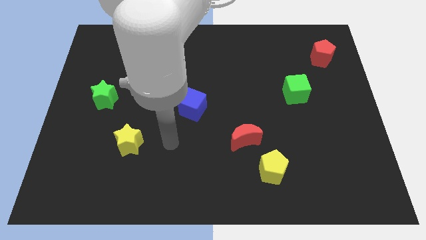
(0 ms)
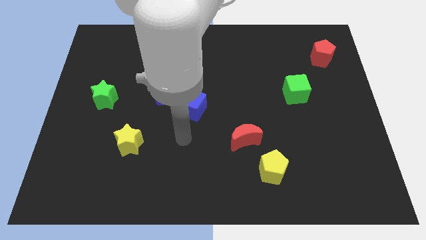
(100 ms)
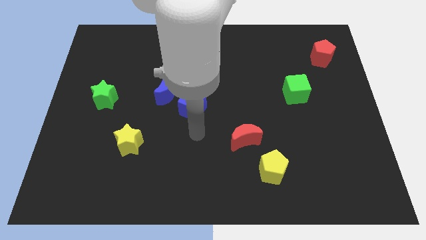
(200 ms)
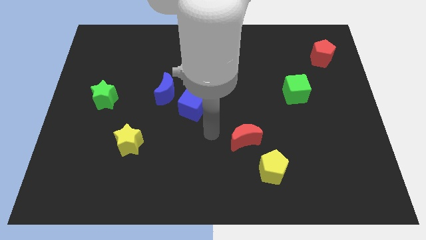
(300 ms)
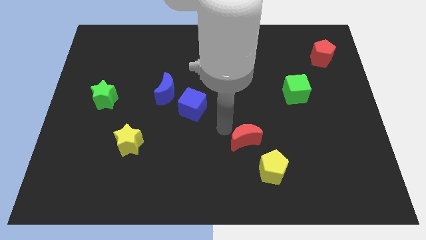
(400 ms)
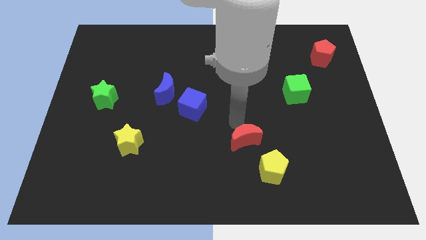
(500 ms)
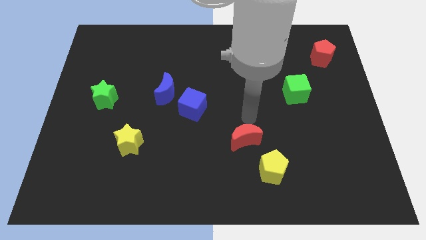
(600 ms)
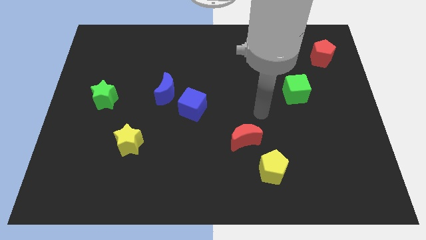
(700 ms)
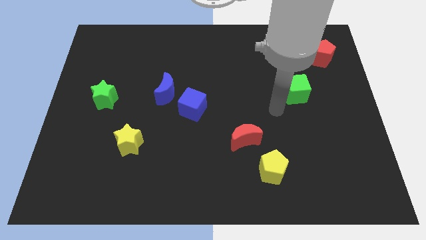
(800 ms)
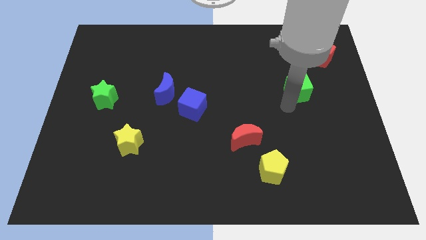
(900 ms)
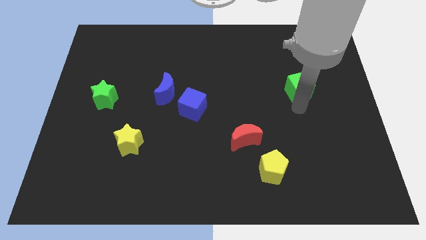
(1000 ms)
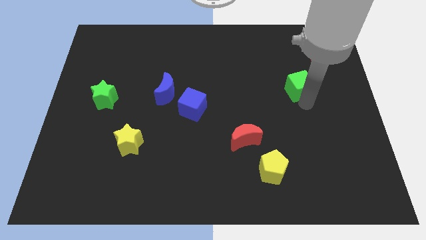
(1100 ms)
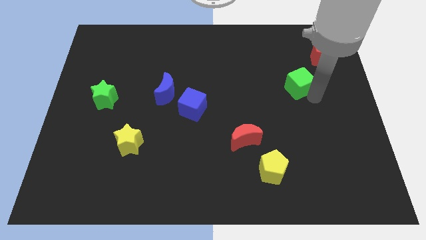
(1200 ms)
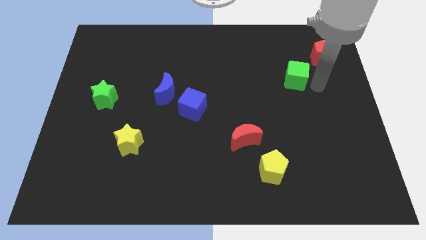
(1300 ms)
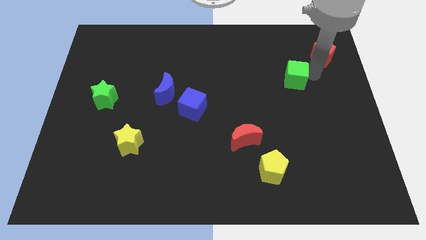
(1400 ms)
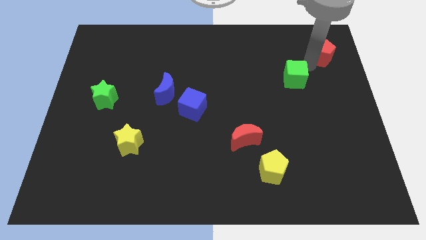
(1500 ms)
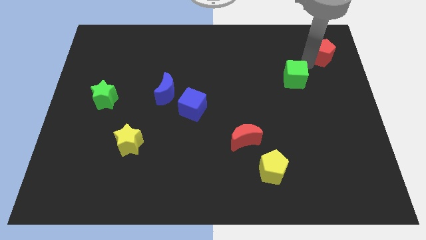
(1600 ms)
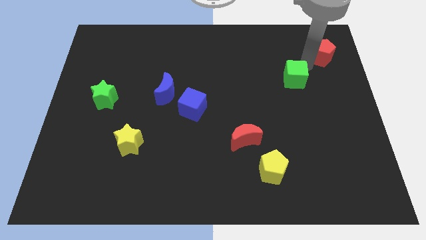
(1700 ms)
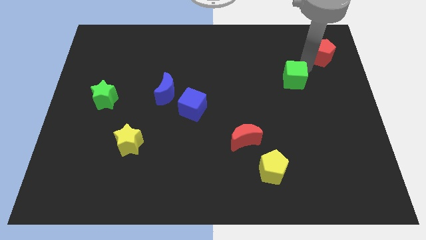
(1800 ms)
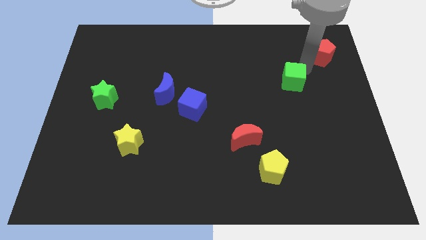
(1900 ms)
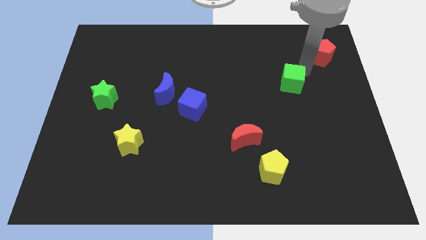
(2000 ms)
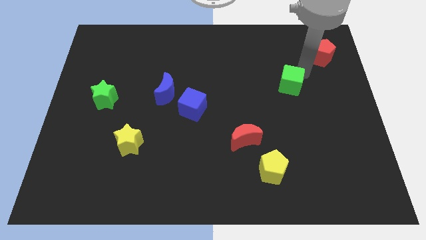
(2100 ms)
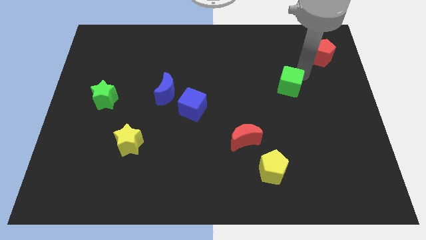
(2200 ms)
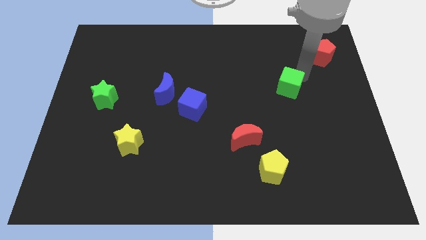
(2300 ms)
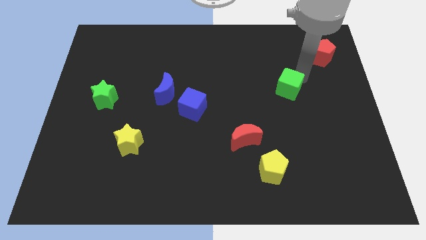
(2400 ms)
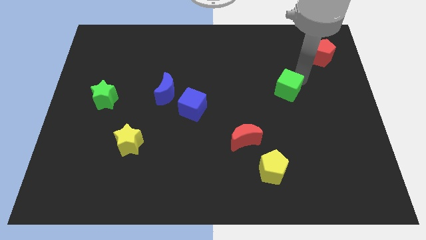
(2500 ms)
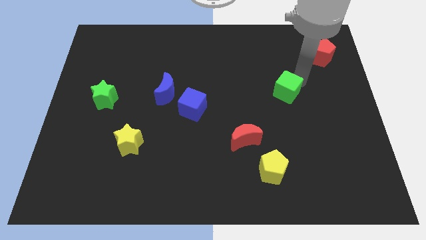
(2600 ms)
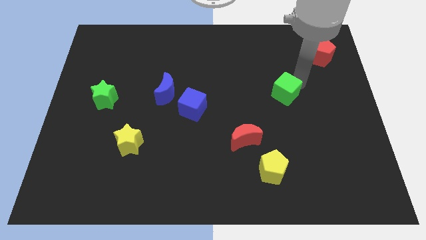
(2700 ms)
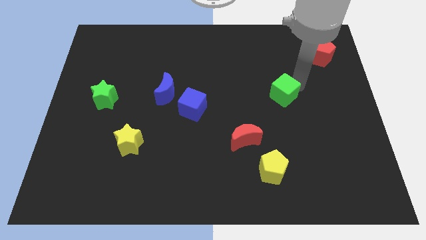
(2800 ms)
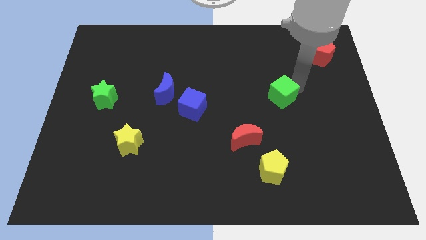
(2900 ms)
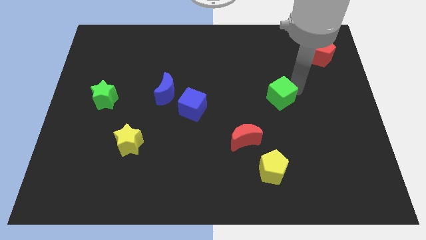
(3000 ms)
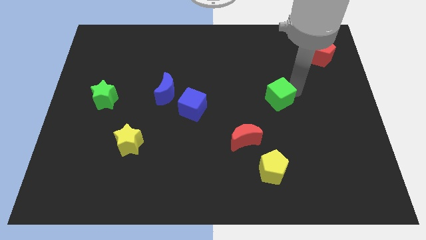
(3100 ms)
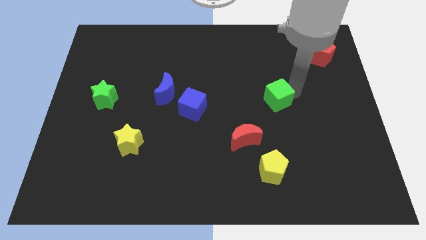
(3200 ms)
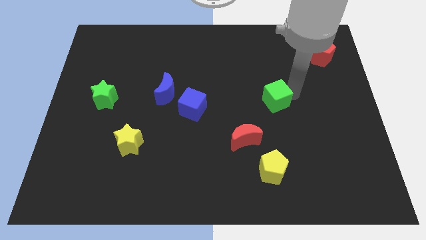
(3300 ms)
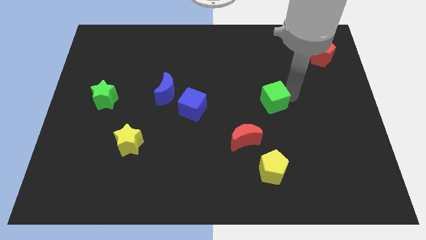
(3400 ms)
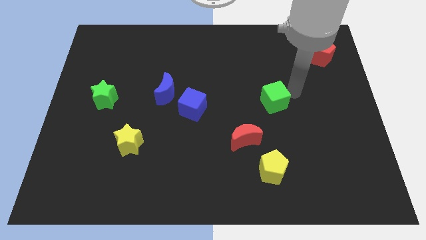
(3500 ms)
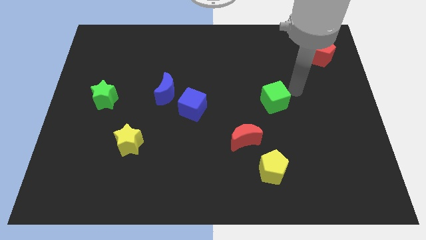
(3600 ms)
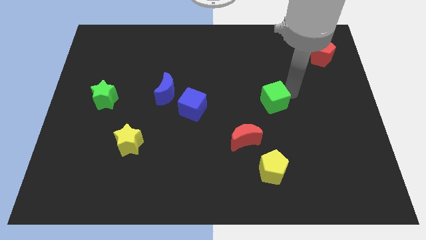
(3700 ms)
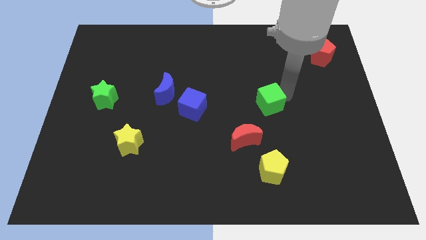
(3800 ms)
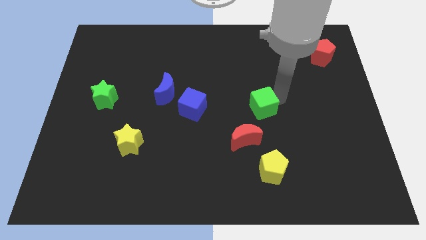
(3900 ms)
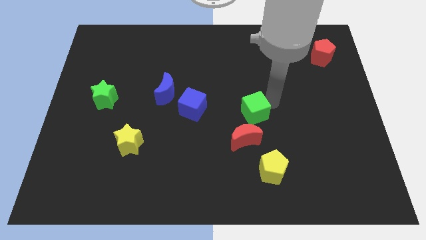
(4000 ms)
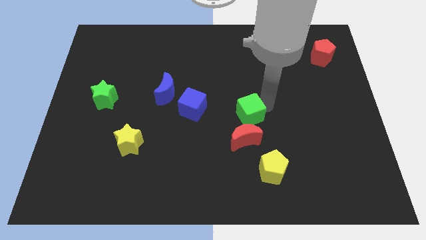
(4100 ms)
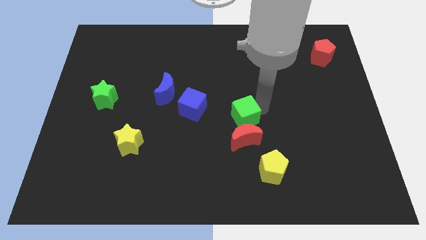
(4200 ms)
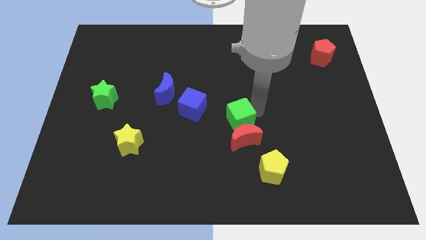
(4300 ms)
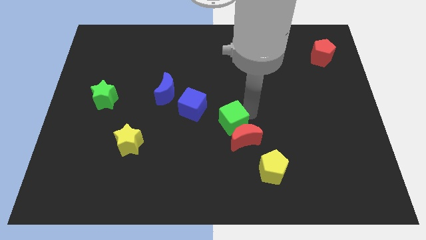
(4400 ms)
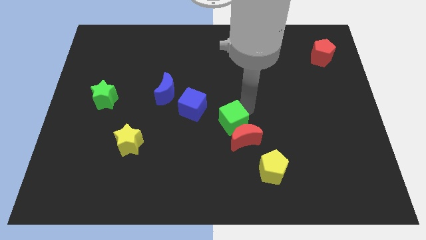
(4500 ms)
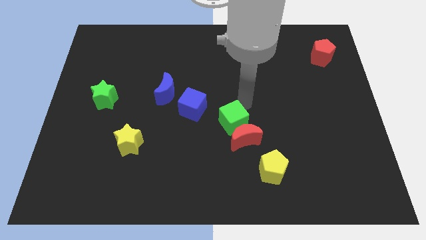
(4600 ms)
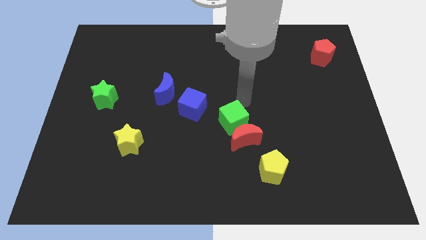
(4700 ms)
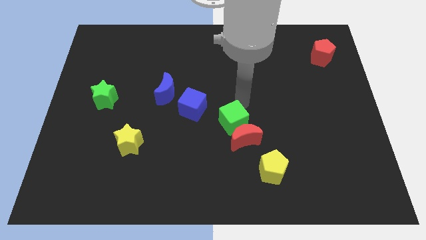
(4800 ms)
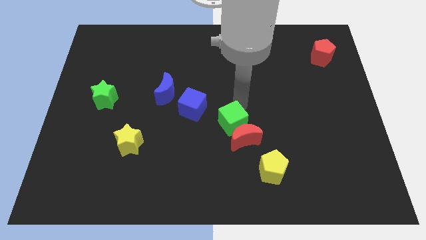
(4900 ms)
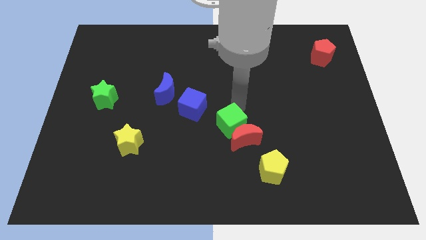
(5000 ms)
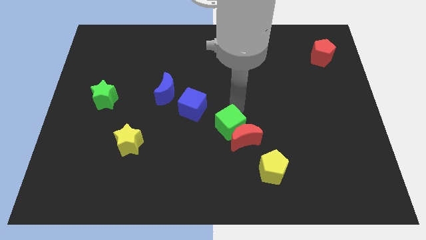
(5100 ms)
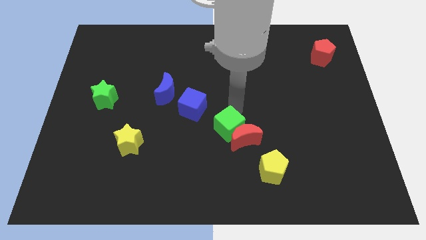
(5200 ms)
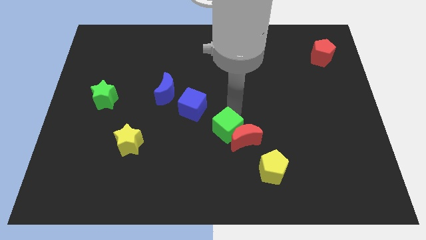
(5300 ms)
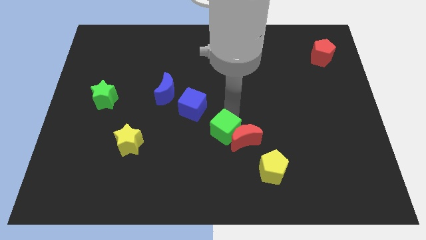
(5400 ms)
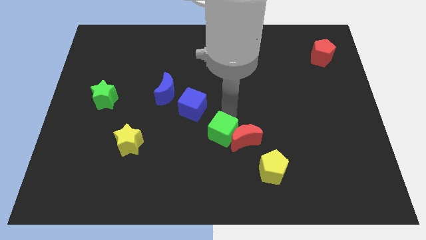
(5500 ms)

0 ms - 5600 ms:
slide the green cube to the bottom left side of the red moon

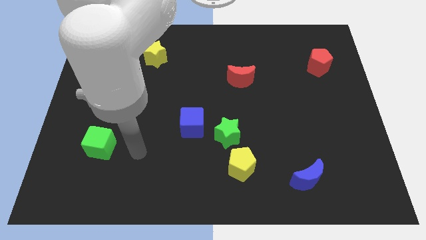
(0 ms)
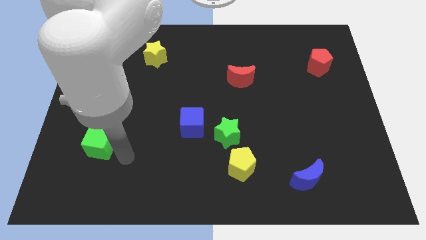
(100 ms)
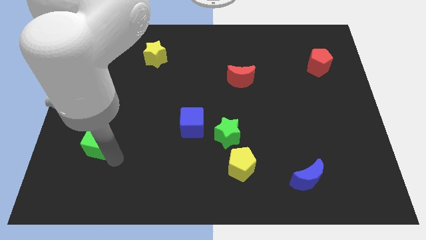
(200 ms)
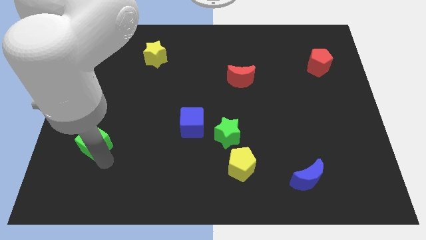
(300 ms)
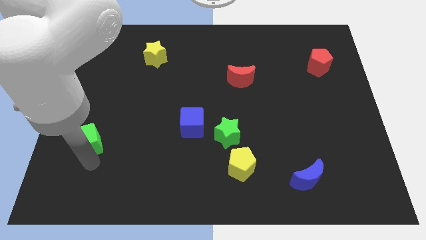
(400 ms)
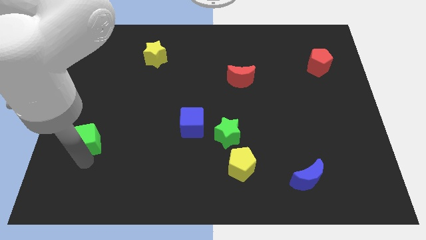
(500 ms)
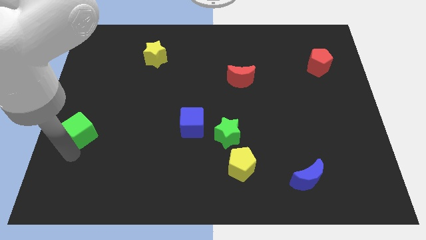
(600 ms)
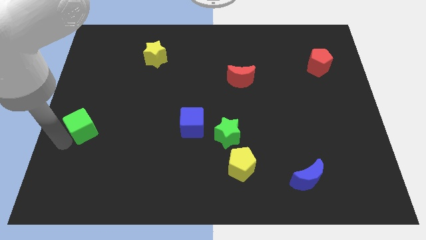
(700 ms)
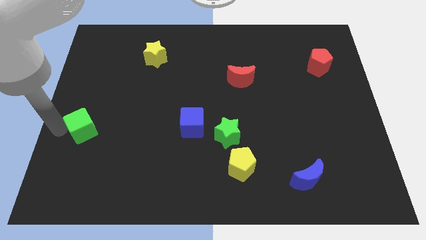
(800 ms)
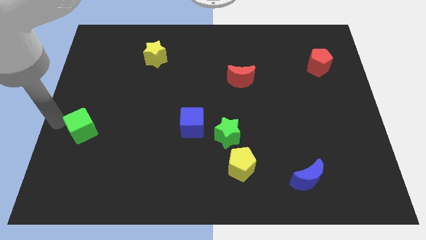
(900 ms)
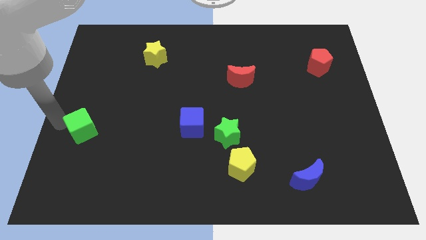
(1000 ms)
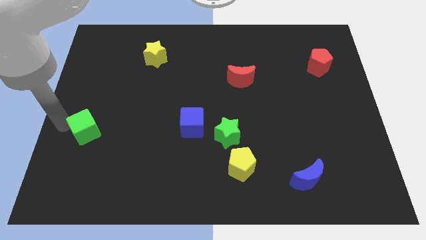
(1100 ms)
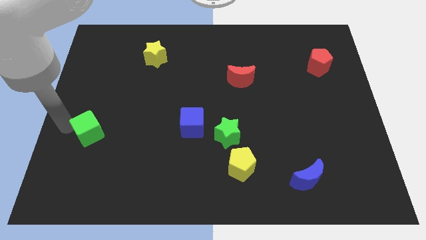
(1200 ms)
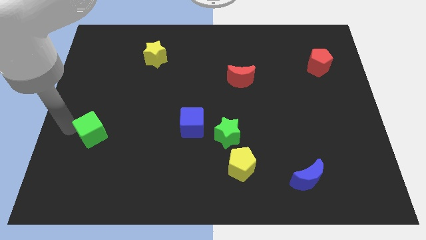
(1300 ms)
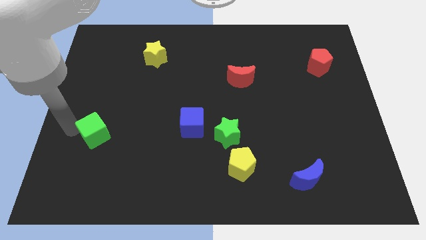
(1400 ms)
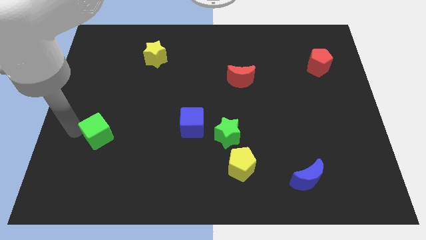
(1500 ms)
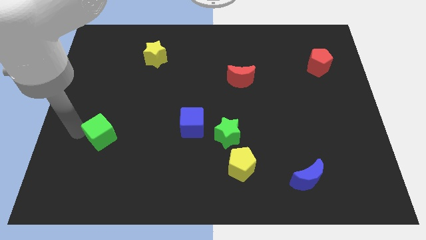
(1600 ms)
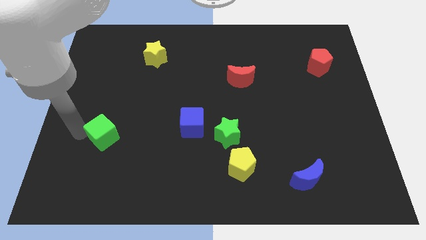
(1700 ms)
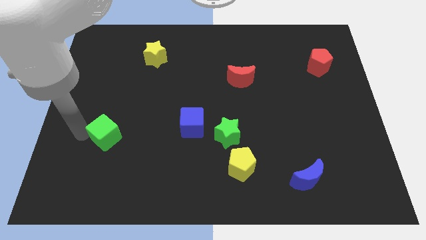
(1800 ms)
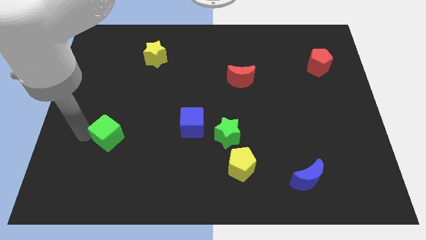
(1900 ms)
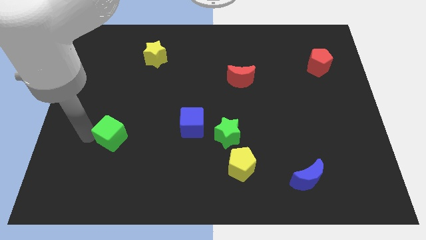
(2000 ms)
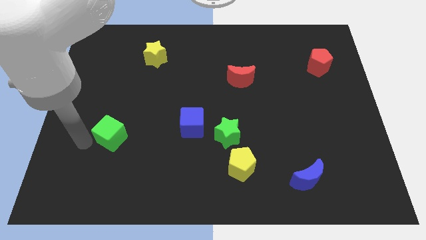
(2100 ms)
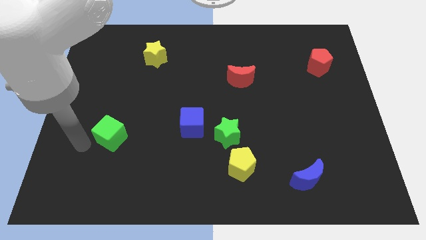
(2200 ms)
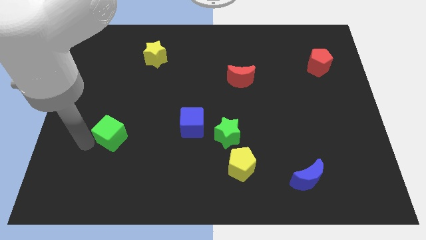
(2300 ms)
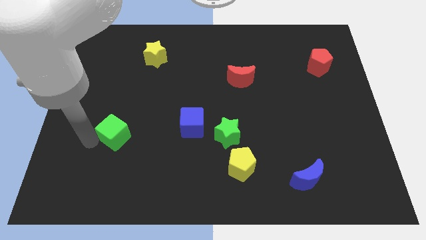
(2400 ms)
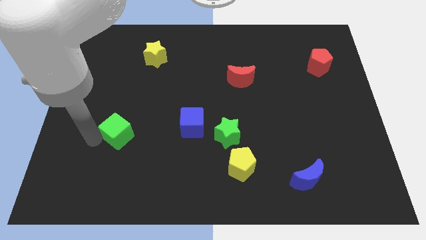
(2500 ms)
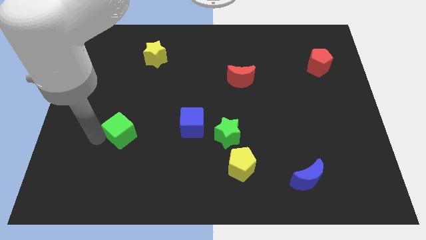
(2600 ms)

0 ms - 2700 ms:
move the green cube just left of the blue cube
